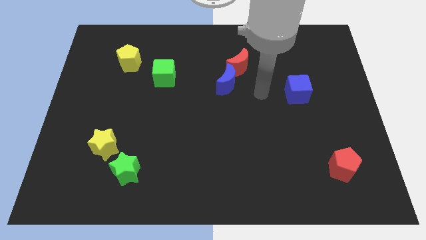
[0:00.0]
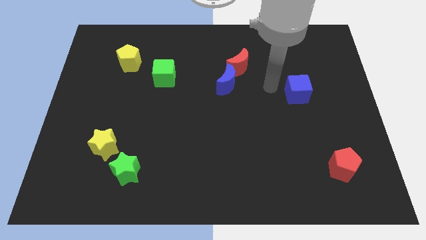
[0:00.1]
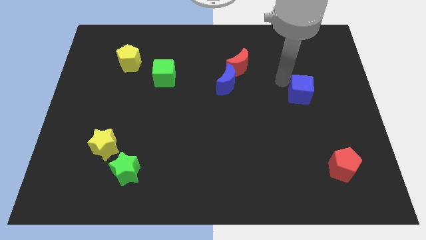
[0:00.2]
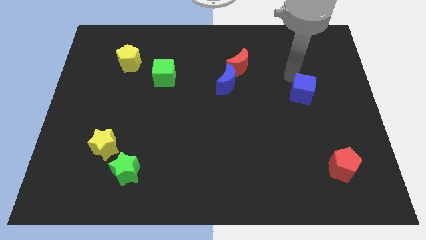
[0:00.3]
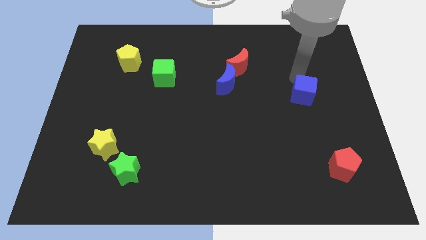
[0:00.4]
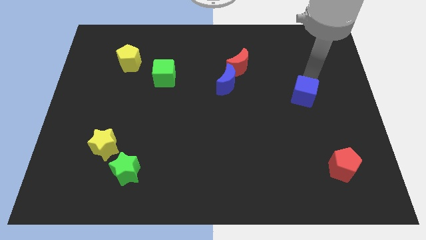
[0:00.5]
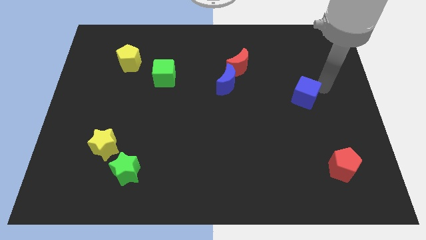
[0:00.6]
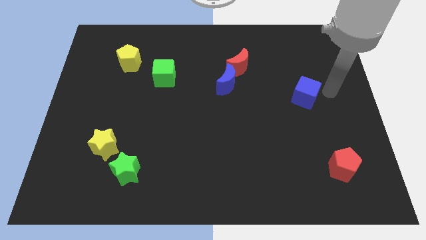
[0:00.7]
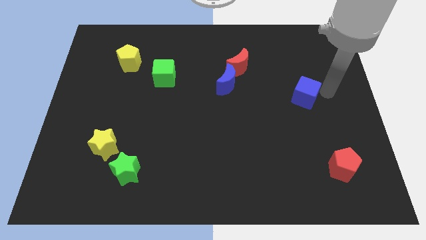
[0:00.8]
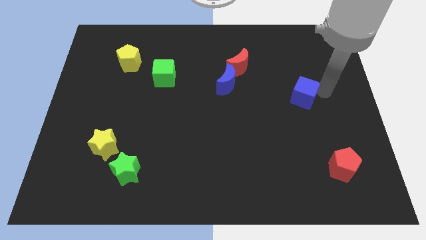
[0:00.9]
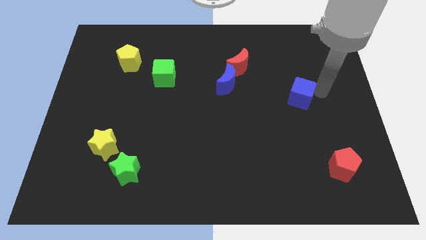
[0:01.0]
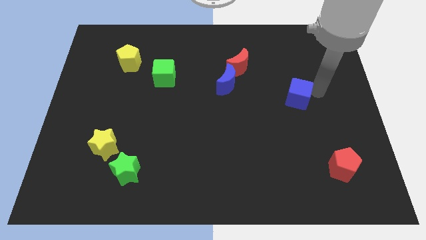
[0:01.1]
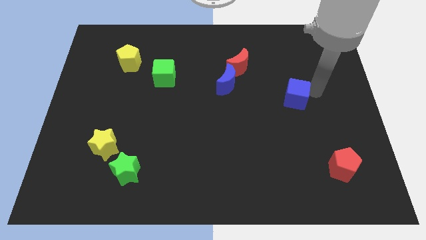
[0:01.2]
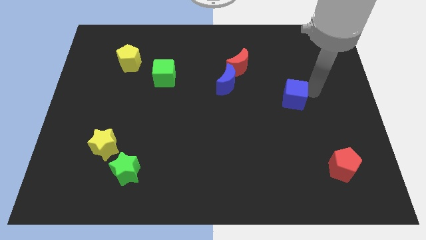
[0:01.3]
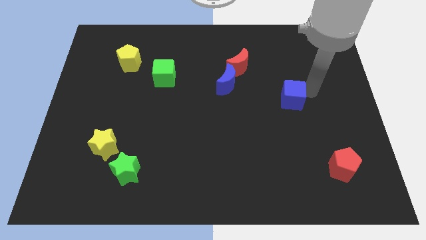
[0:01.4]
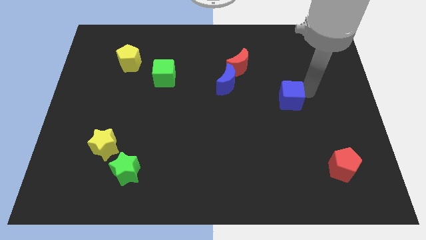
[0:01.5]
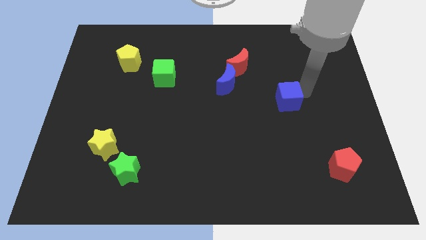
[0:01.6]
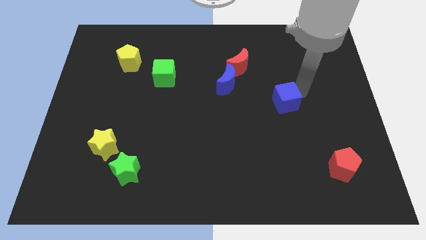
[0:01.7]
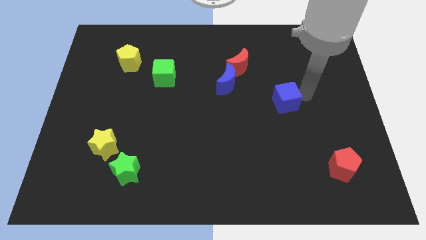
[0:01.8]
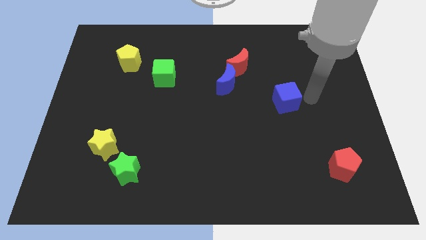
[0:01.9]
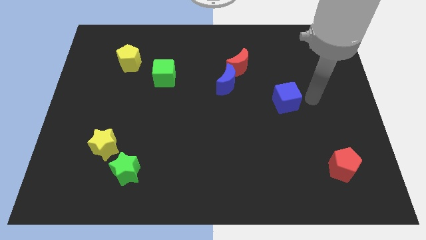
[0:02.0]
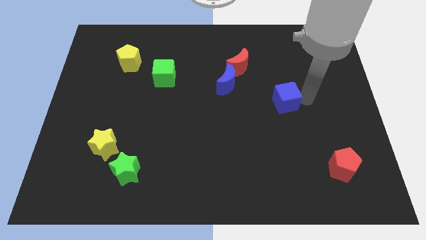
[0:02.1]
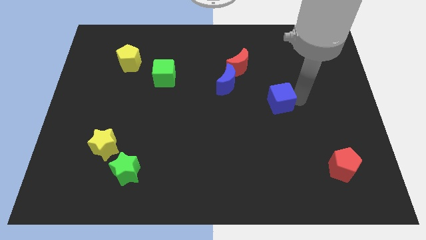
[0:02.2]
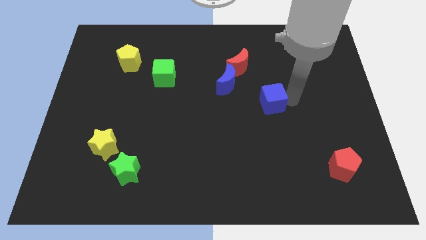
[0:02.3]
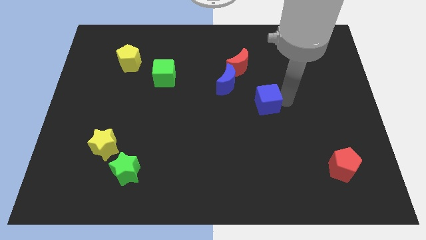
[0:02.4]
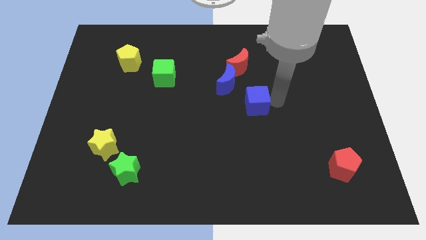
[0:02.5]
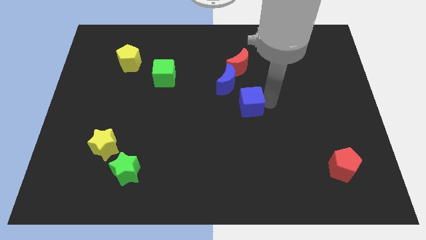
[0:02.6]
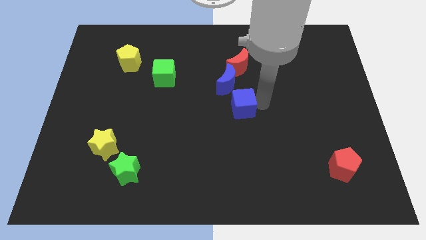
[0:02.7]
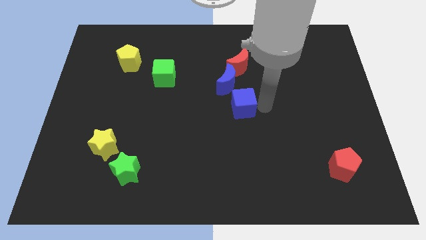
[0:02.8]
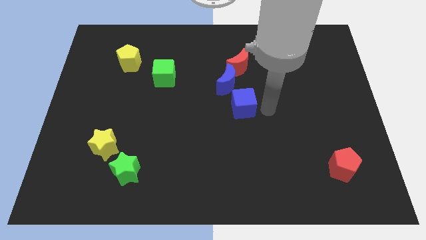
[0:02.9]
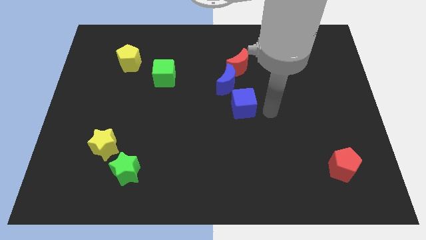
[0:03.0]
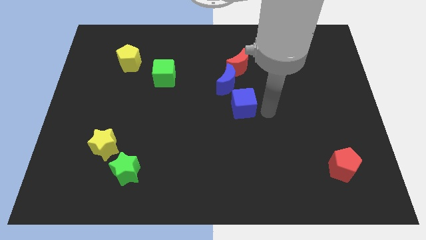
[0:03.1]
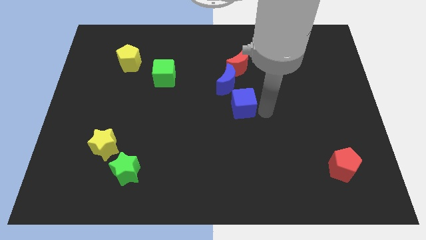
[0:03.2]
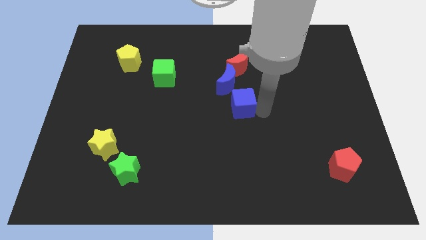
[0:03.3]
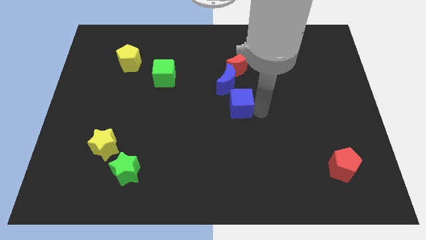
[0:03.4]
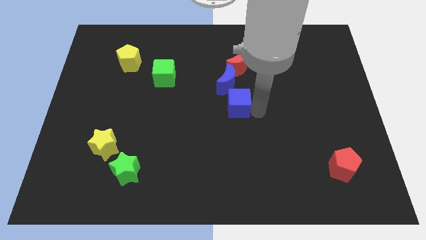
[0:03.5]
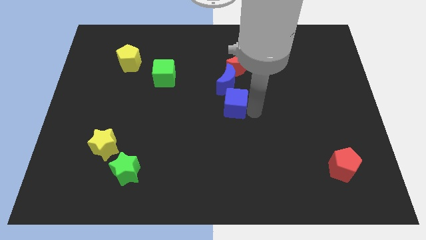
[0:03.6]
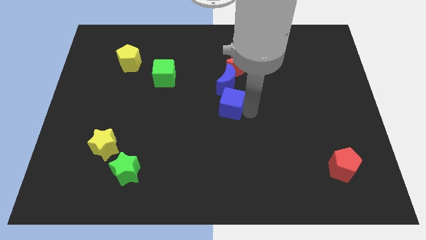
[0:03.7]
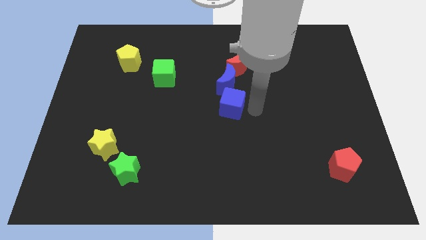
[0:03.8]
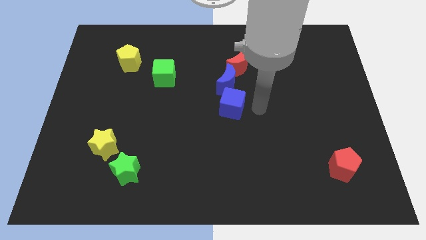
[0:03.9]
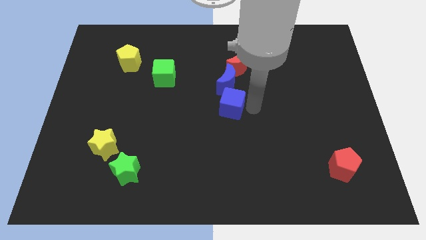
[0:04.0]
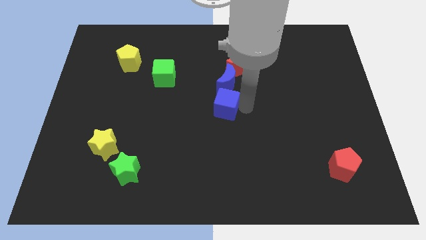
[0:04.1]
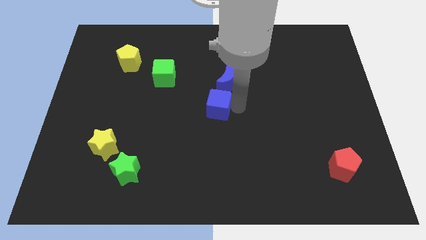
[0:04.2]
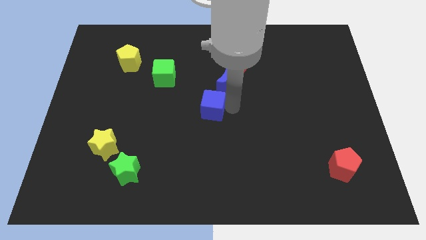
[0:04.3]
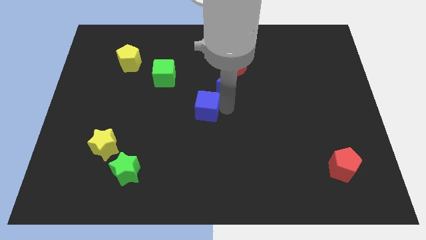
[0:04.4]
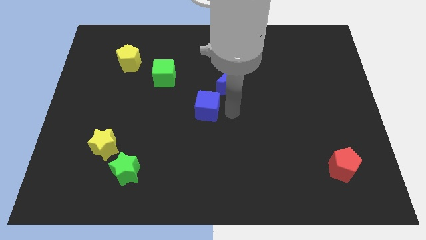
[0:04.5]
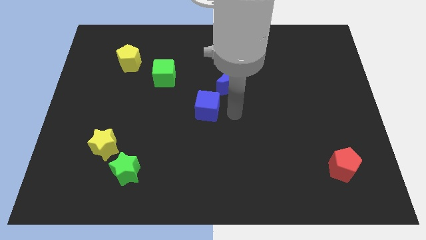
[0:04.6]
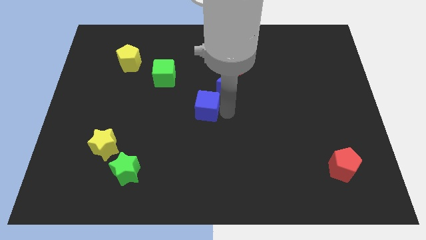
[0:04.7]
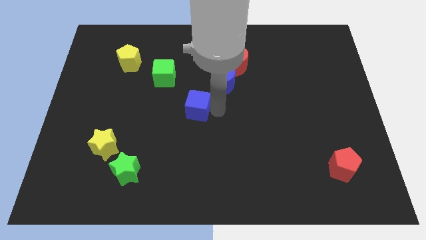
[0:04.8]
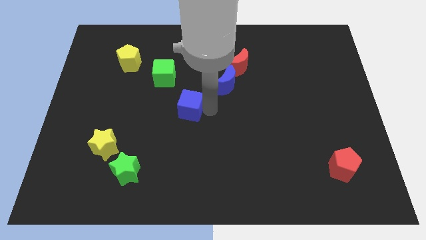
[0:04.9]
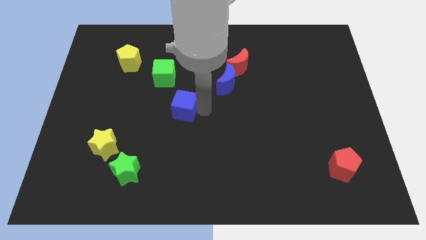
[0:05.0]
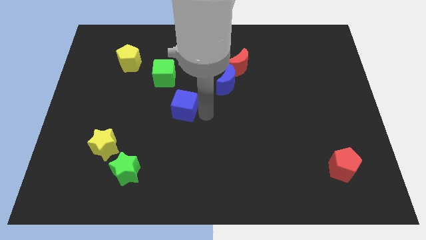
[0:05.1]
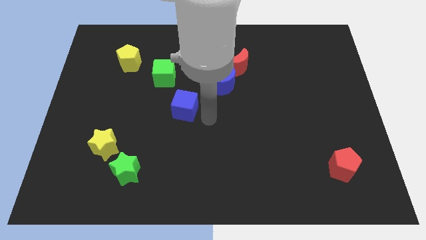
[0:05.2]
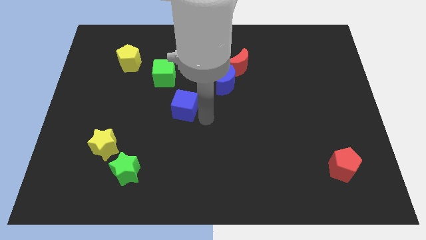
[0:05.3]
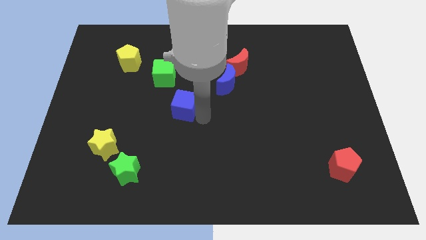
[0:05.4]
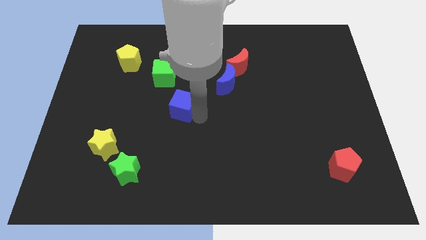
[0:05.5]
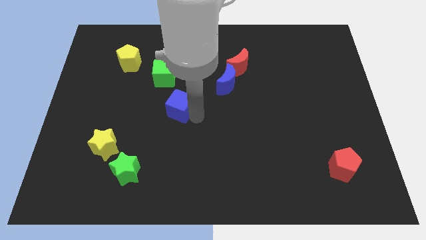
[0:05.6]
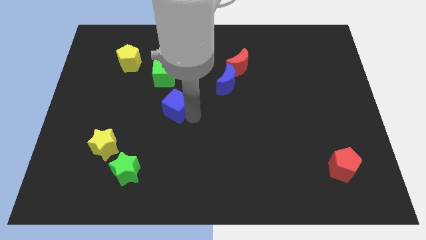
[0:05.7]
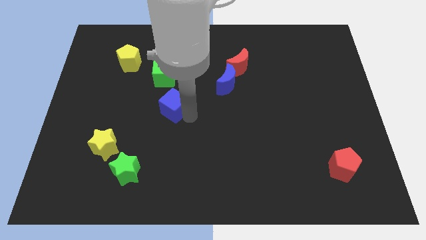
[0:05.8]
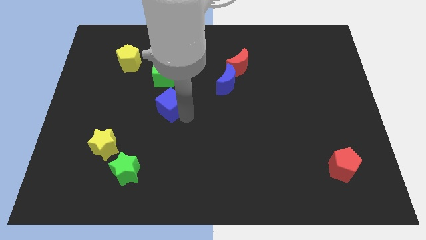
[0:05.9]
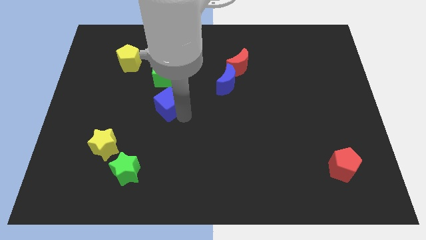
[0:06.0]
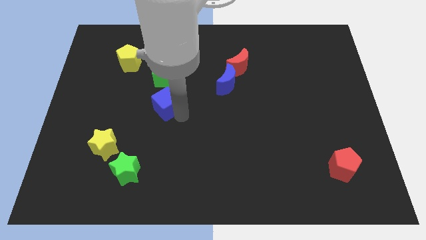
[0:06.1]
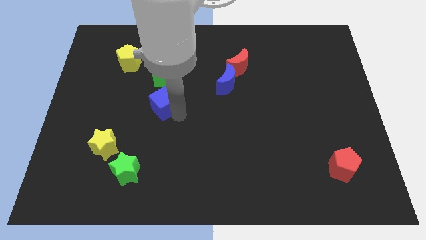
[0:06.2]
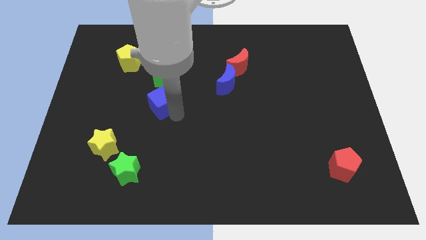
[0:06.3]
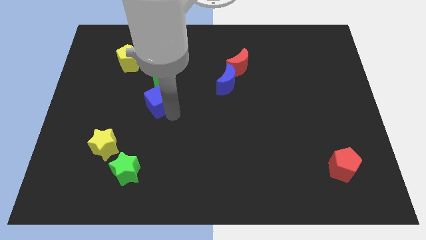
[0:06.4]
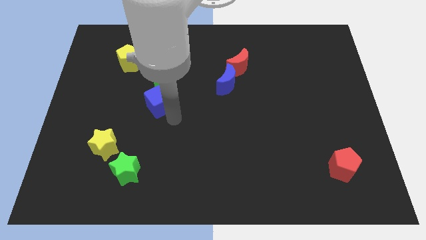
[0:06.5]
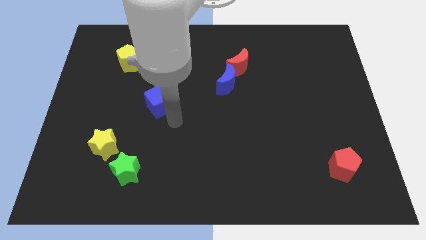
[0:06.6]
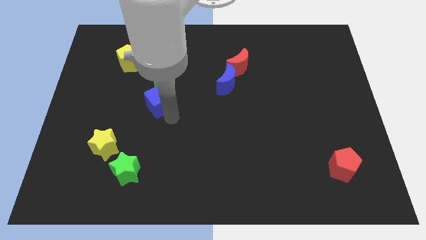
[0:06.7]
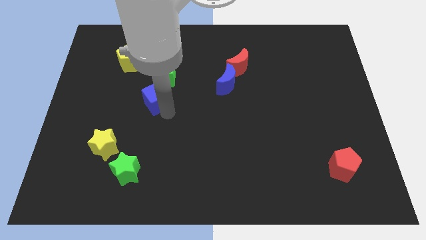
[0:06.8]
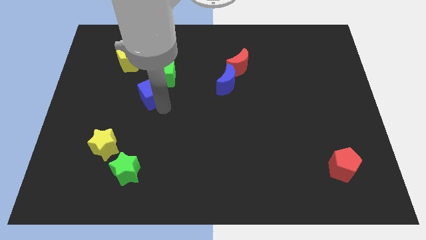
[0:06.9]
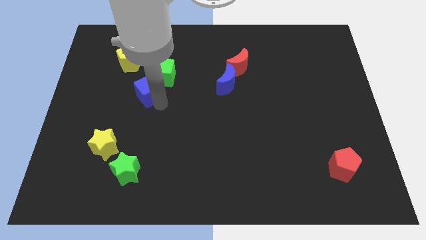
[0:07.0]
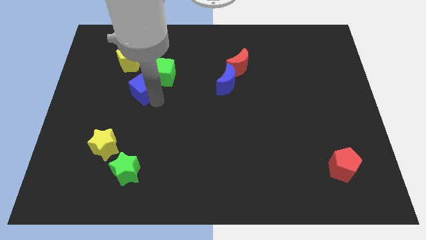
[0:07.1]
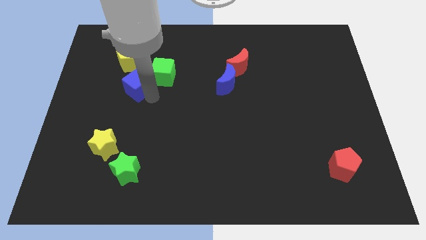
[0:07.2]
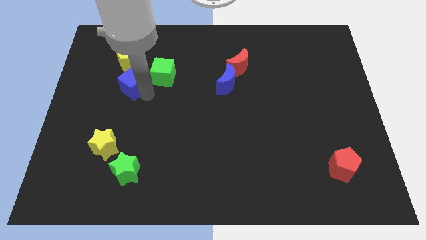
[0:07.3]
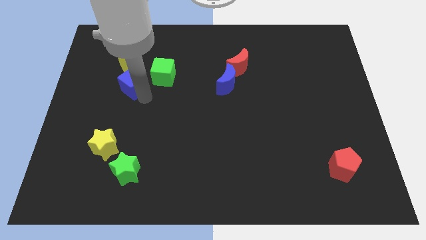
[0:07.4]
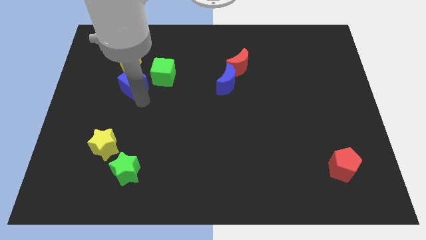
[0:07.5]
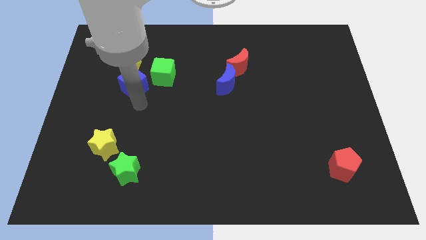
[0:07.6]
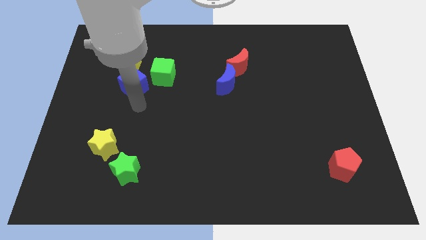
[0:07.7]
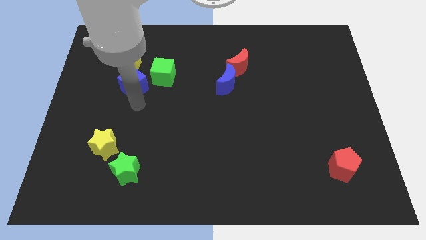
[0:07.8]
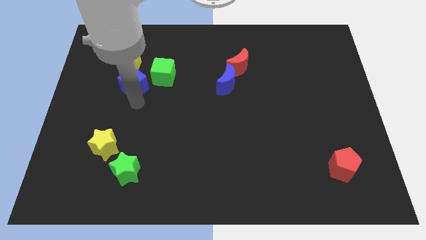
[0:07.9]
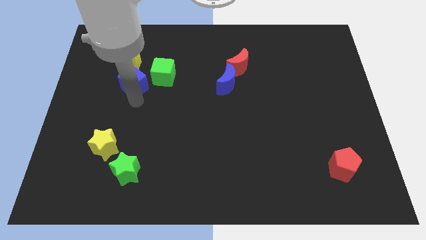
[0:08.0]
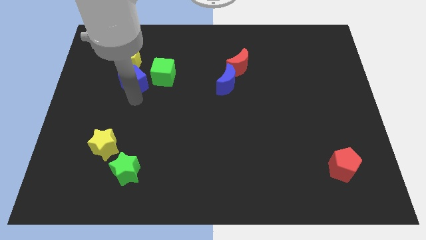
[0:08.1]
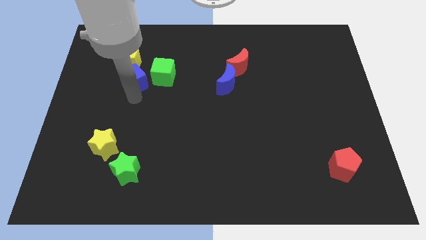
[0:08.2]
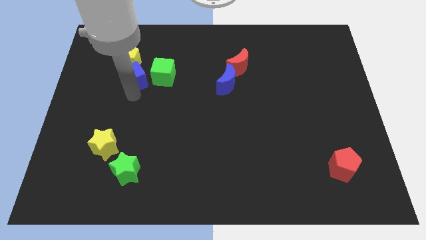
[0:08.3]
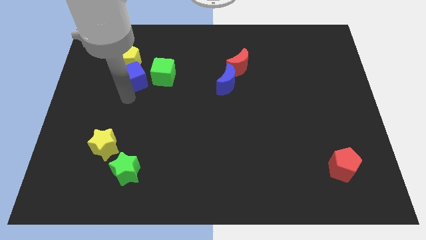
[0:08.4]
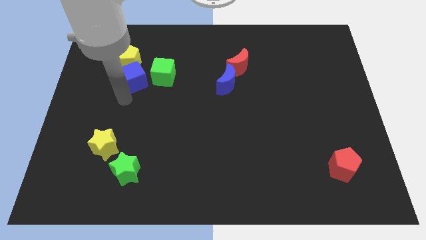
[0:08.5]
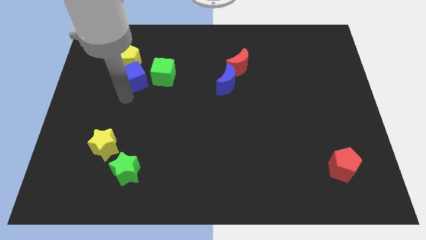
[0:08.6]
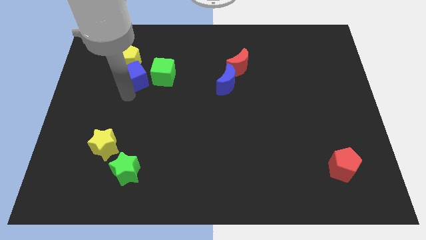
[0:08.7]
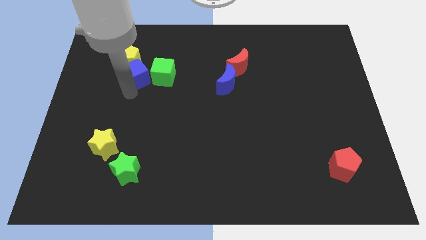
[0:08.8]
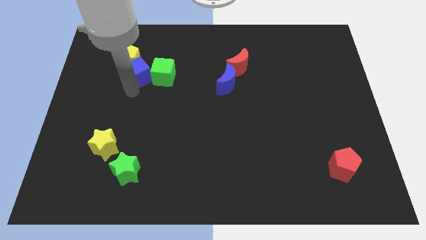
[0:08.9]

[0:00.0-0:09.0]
put the blue cube to the top left side of the green cube
